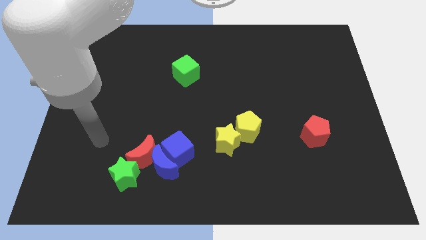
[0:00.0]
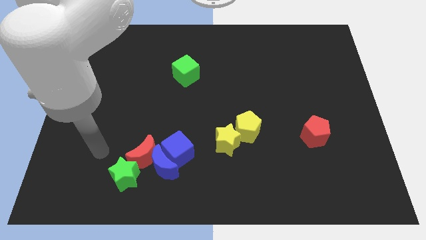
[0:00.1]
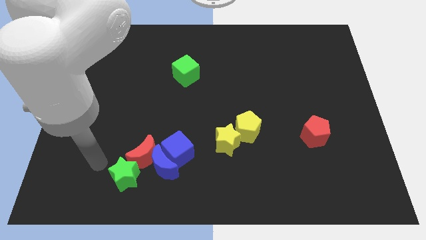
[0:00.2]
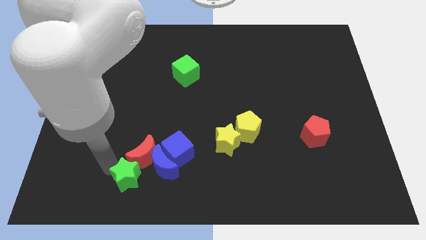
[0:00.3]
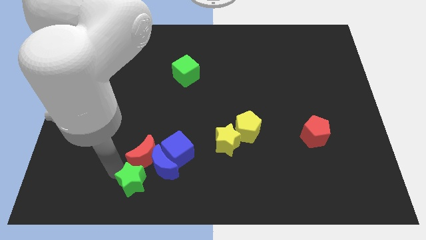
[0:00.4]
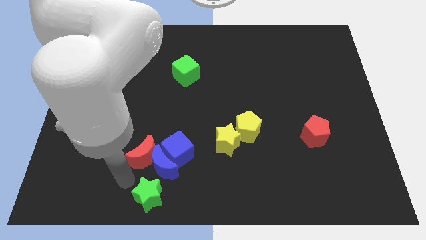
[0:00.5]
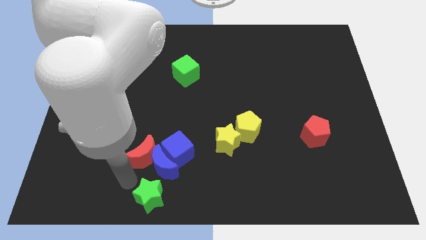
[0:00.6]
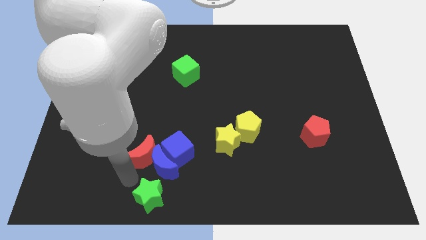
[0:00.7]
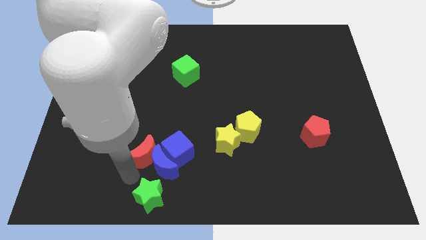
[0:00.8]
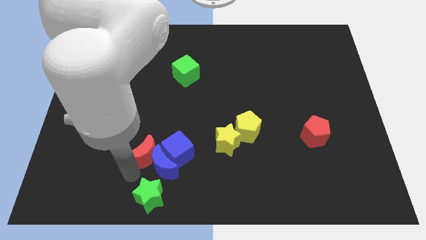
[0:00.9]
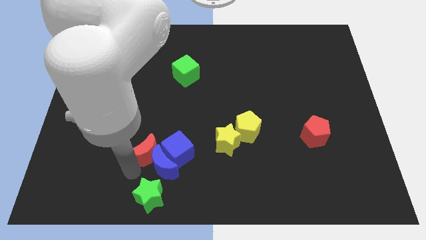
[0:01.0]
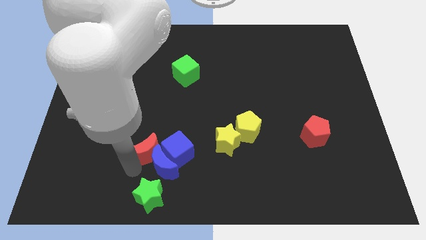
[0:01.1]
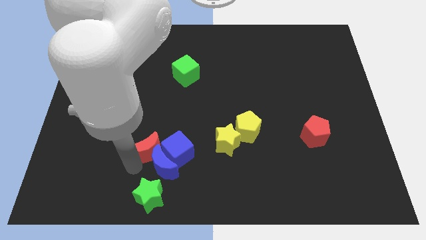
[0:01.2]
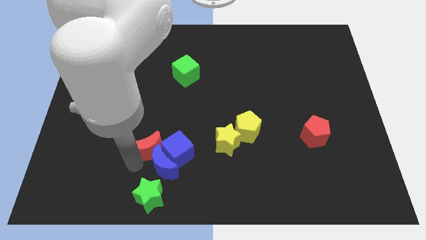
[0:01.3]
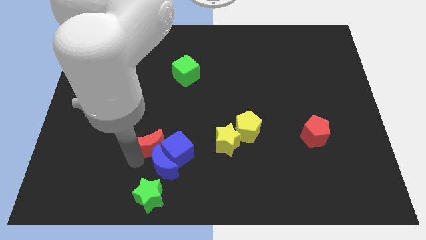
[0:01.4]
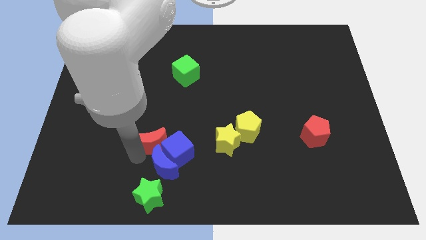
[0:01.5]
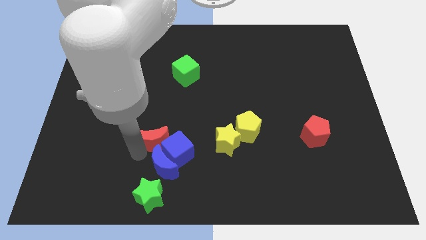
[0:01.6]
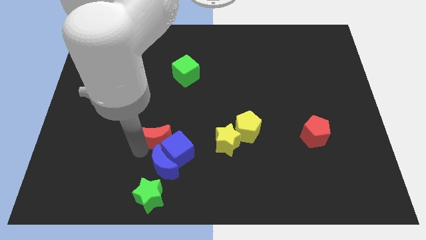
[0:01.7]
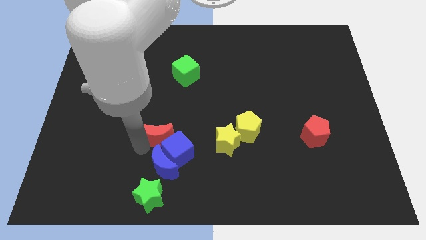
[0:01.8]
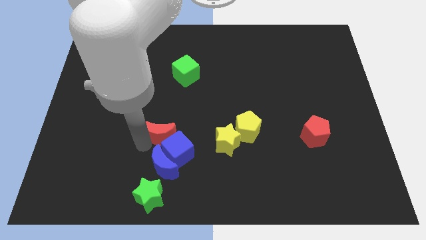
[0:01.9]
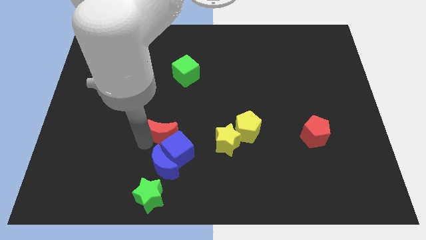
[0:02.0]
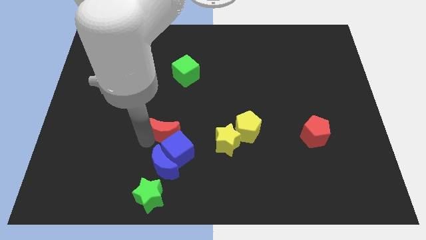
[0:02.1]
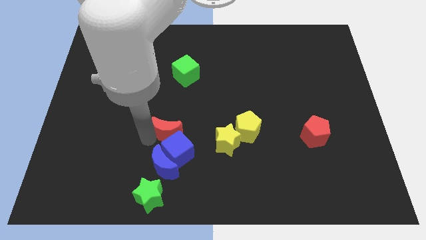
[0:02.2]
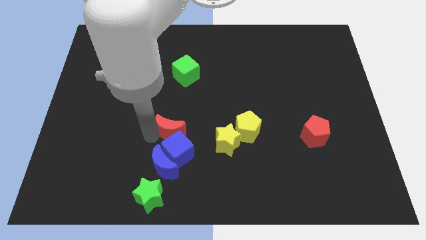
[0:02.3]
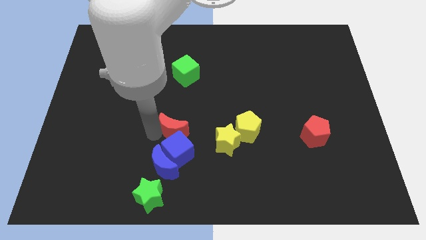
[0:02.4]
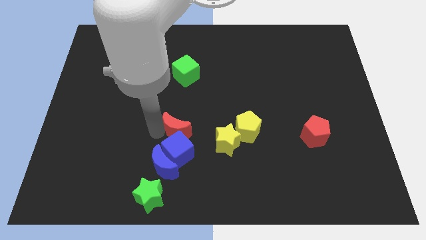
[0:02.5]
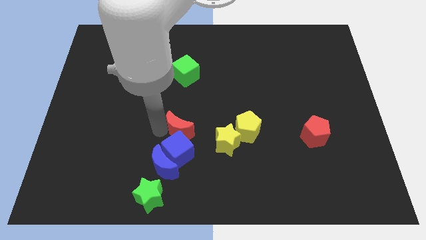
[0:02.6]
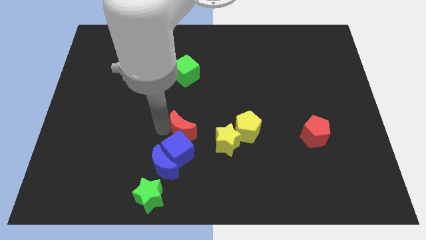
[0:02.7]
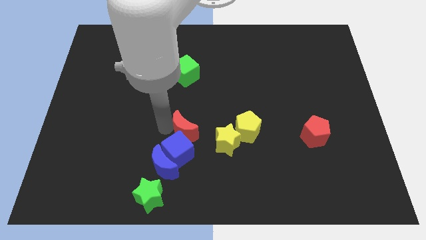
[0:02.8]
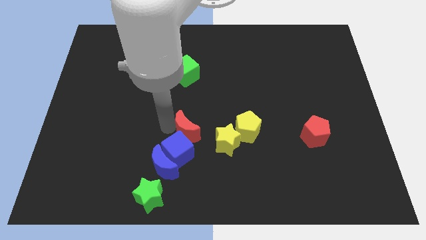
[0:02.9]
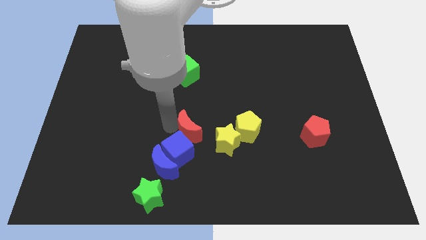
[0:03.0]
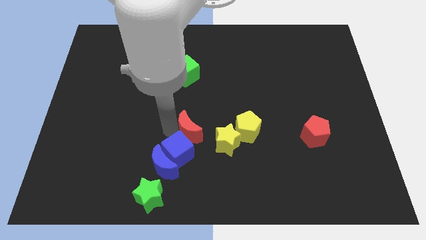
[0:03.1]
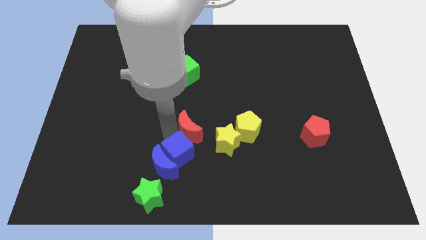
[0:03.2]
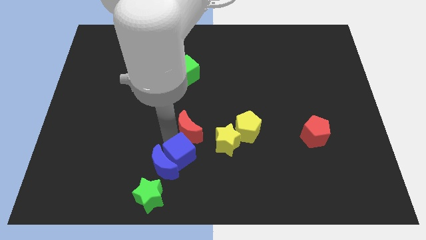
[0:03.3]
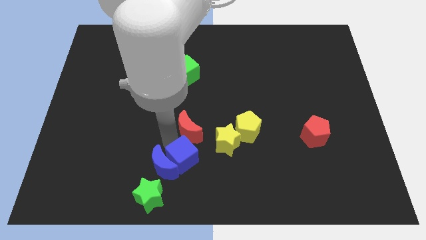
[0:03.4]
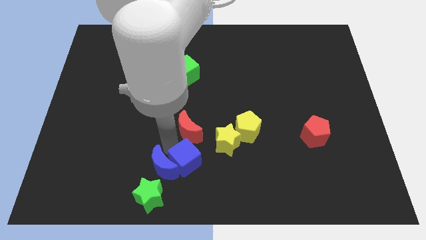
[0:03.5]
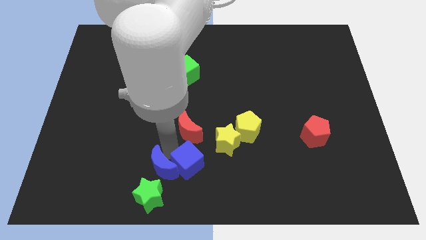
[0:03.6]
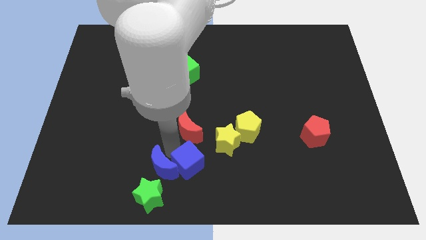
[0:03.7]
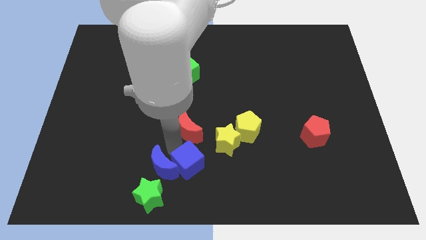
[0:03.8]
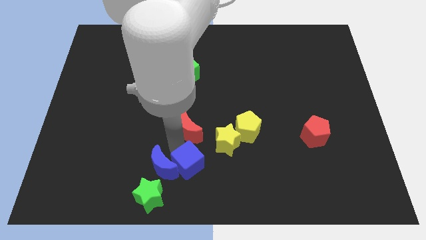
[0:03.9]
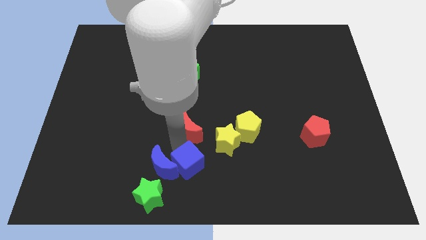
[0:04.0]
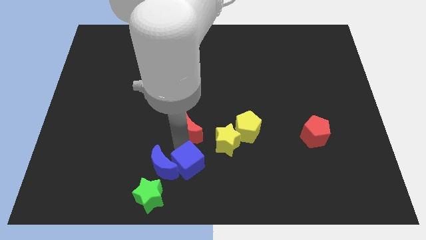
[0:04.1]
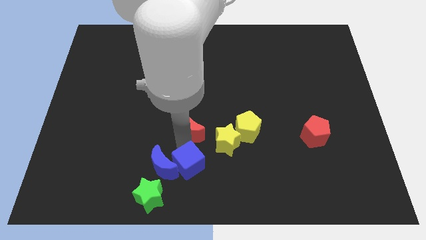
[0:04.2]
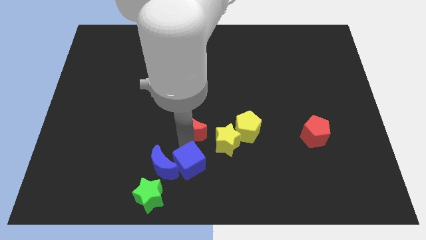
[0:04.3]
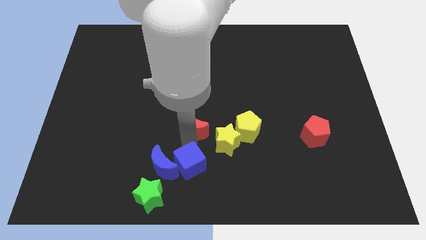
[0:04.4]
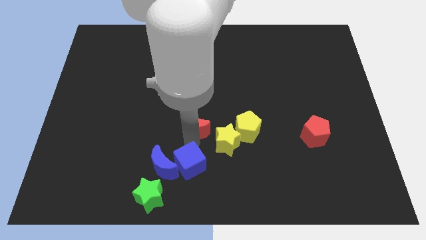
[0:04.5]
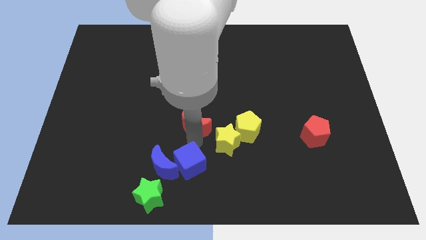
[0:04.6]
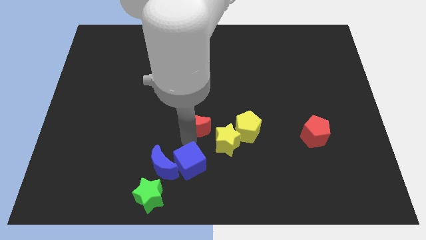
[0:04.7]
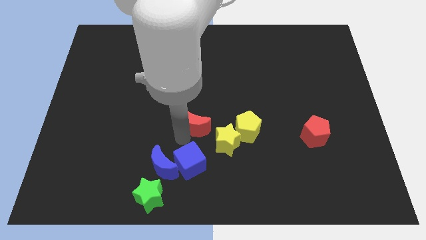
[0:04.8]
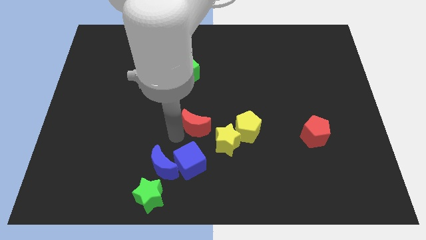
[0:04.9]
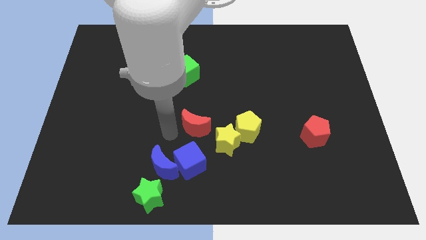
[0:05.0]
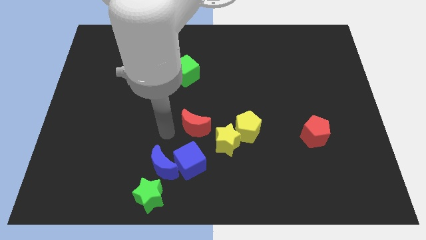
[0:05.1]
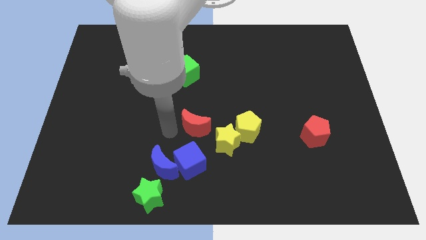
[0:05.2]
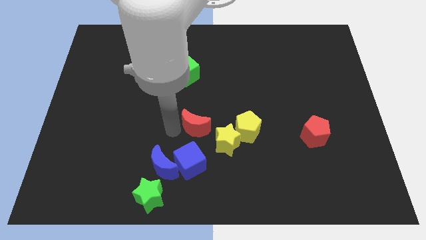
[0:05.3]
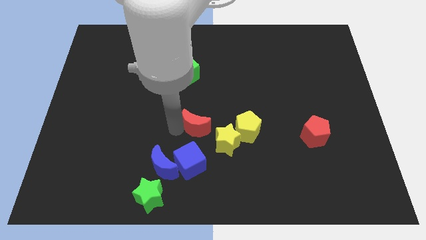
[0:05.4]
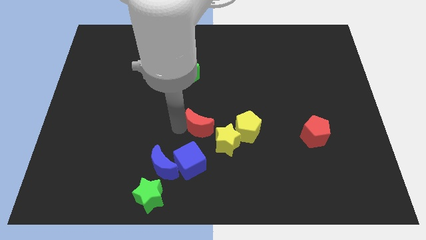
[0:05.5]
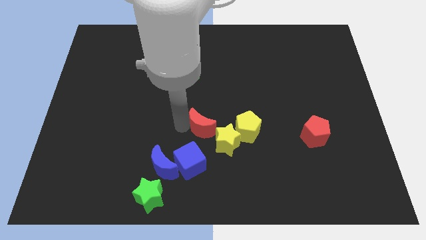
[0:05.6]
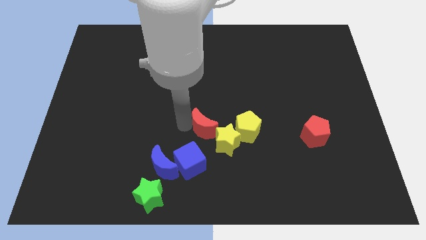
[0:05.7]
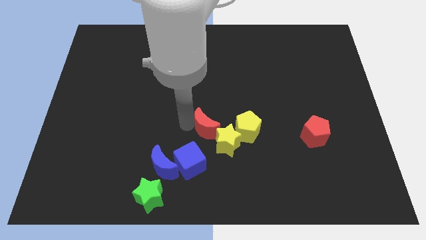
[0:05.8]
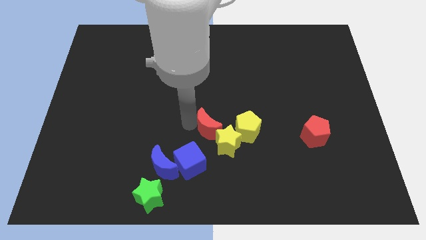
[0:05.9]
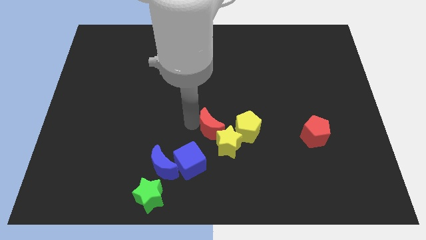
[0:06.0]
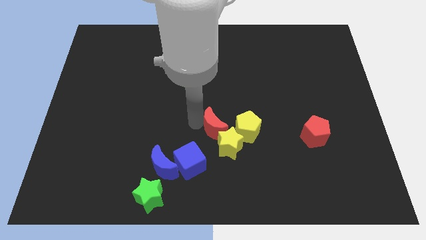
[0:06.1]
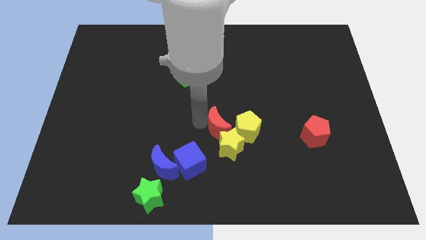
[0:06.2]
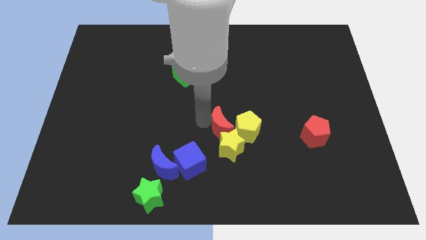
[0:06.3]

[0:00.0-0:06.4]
put the red moon next to the yellow pentagon
